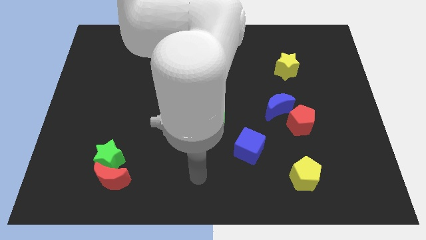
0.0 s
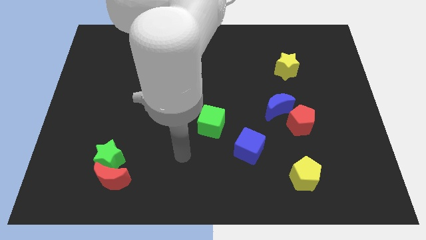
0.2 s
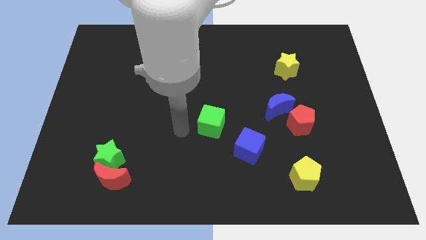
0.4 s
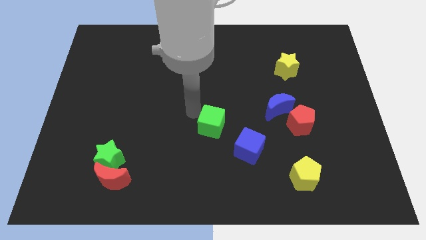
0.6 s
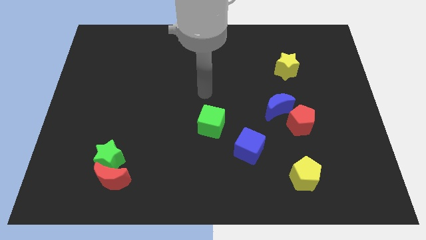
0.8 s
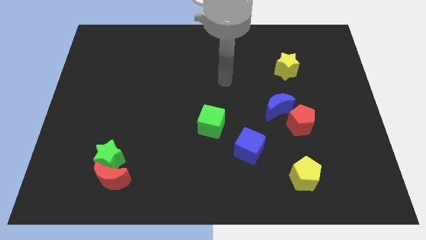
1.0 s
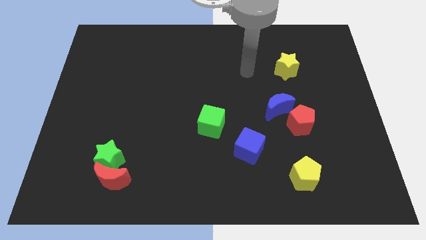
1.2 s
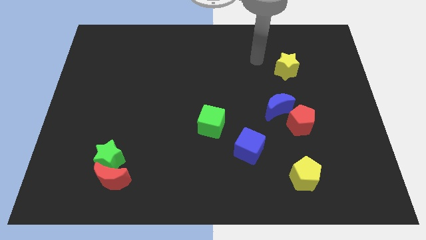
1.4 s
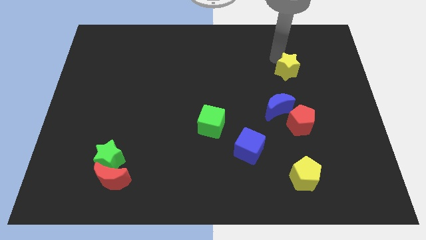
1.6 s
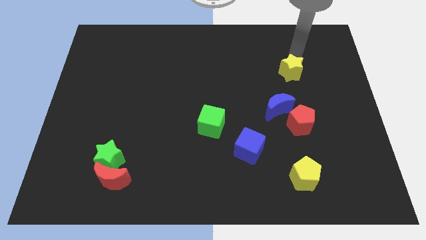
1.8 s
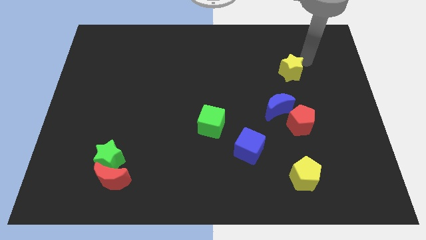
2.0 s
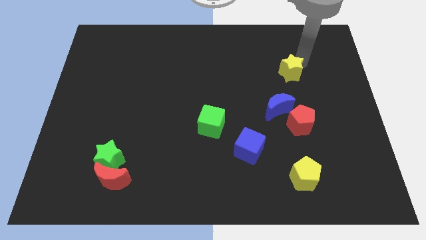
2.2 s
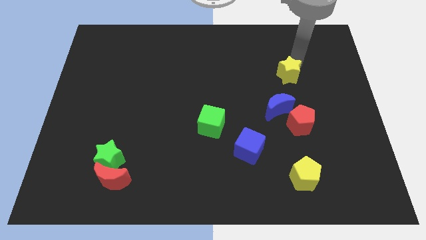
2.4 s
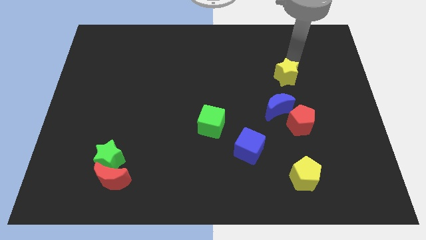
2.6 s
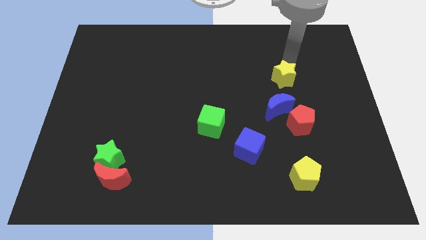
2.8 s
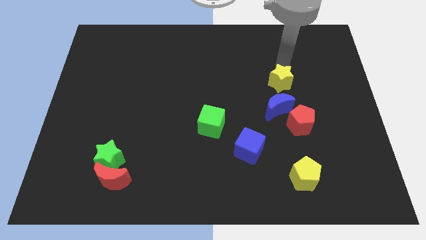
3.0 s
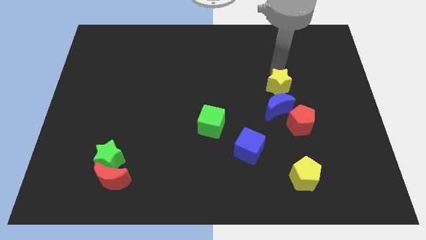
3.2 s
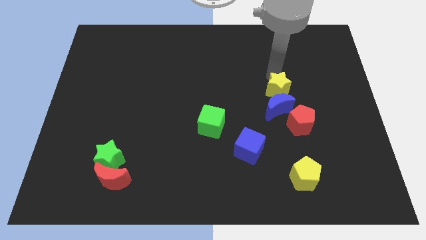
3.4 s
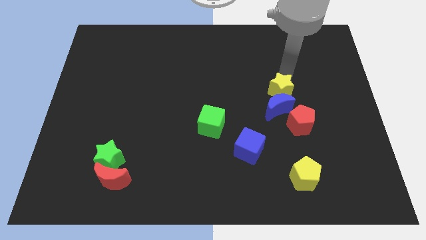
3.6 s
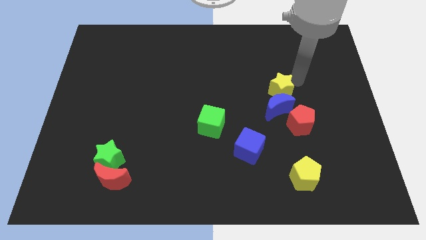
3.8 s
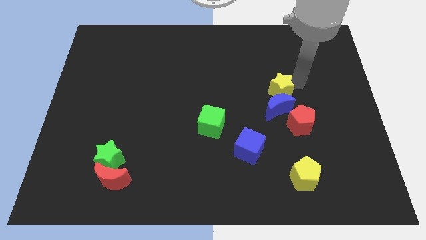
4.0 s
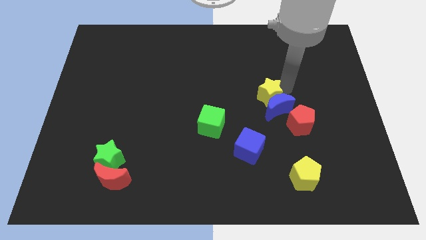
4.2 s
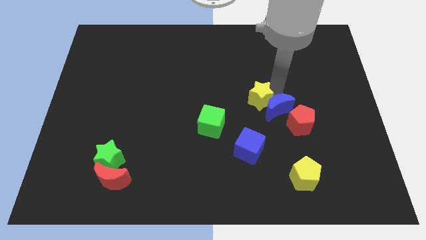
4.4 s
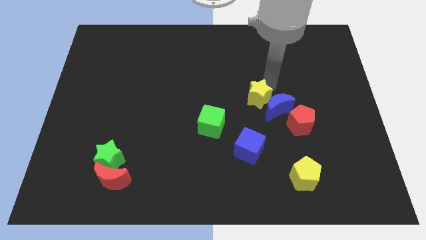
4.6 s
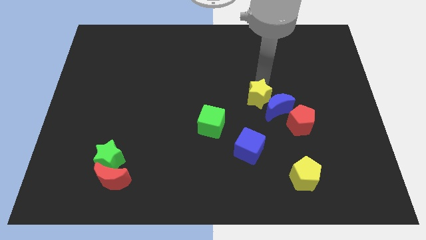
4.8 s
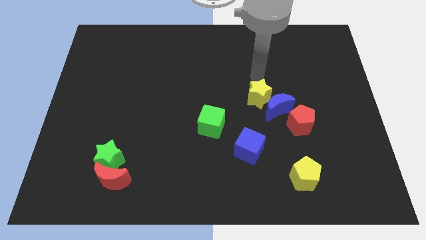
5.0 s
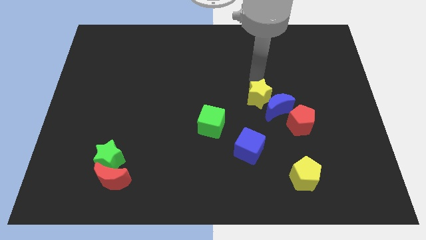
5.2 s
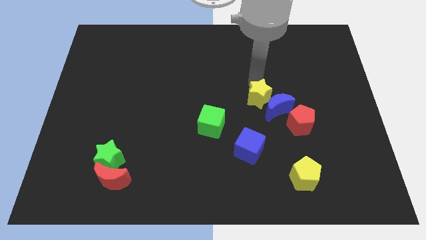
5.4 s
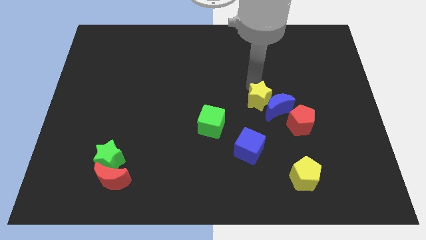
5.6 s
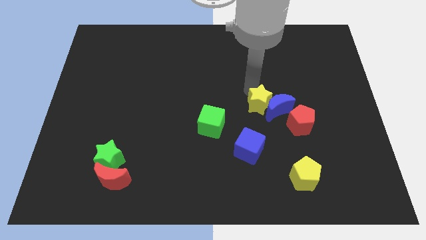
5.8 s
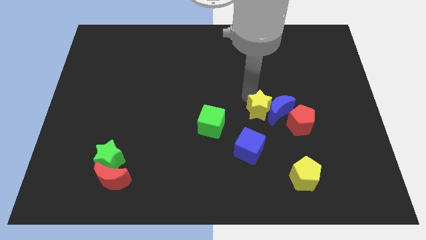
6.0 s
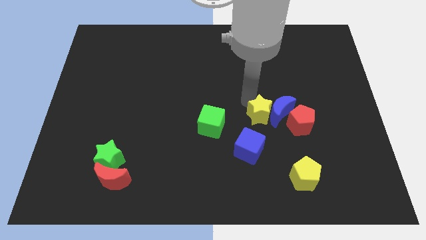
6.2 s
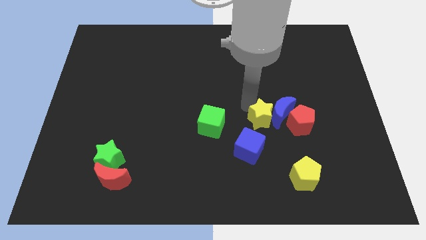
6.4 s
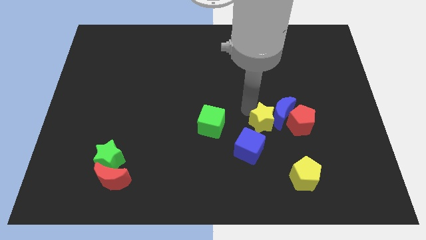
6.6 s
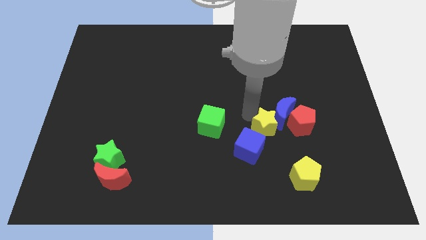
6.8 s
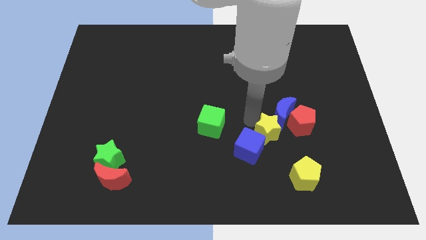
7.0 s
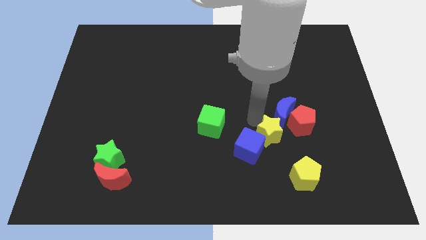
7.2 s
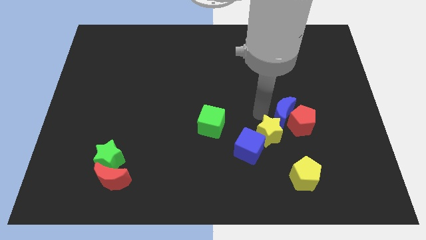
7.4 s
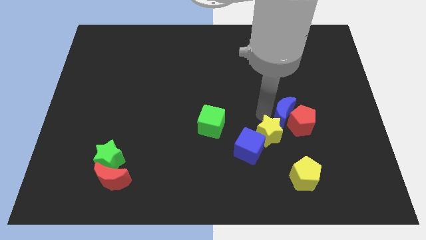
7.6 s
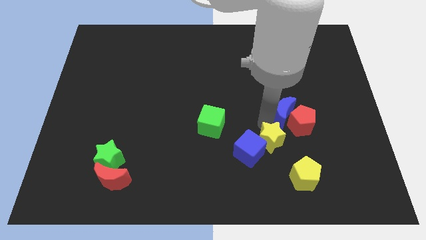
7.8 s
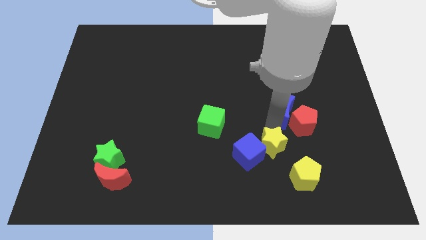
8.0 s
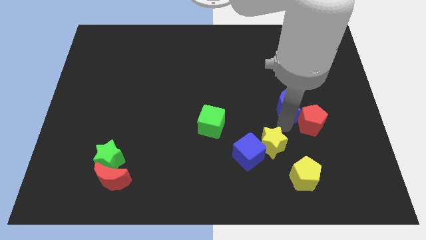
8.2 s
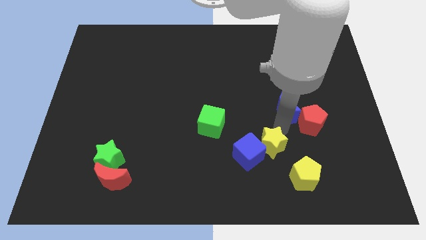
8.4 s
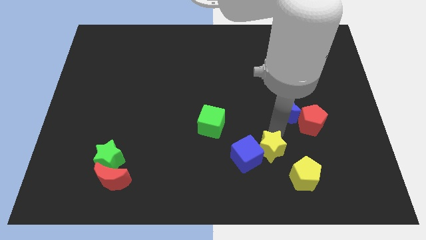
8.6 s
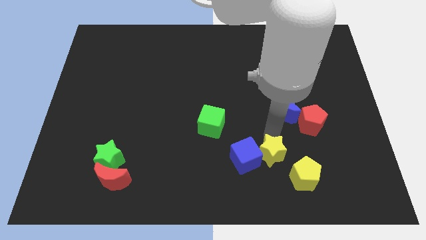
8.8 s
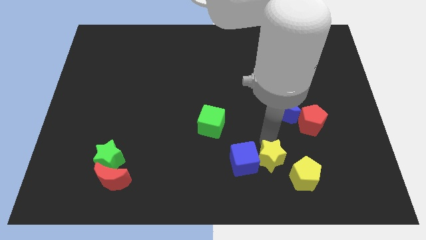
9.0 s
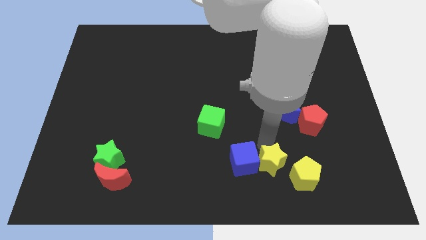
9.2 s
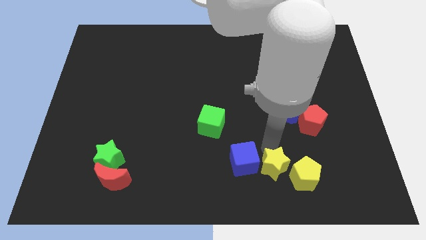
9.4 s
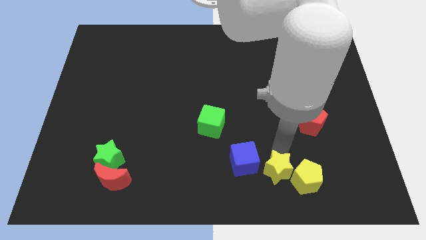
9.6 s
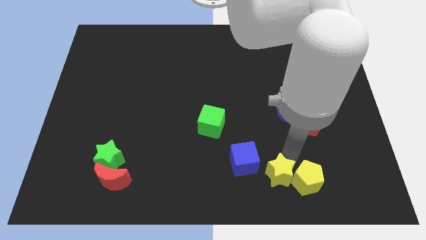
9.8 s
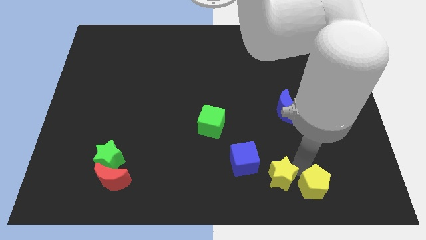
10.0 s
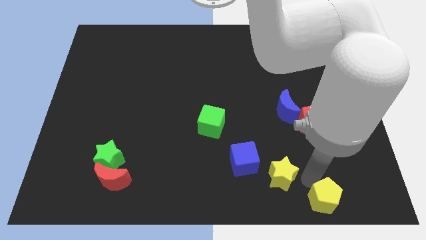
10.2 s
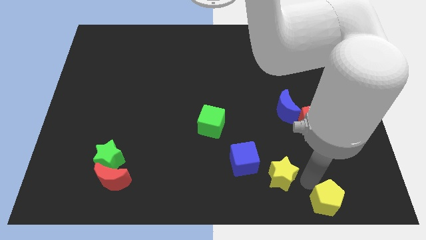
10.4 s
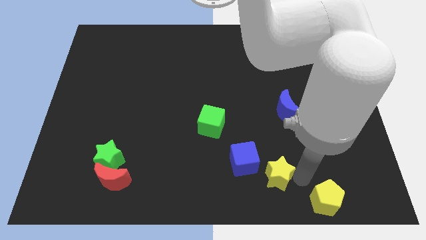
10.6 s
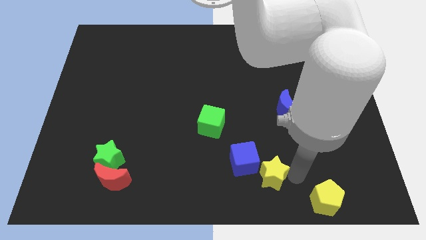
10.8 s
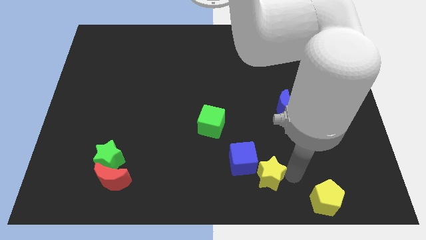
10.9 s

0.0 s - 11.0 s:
put the yellow star to the bottom side
